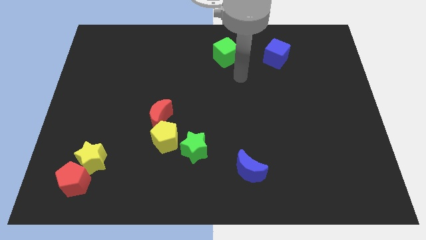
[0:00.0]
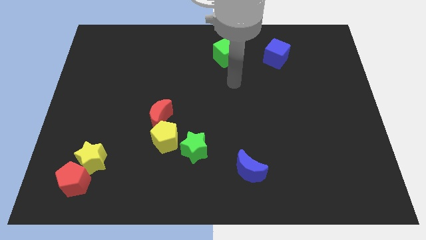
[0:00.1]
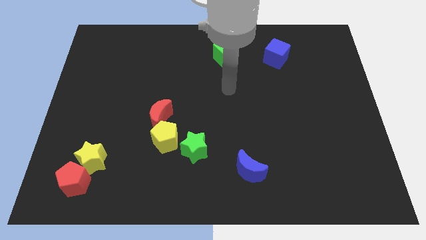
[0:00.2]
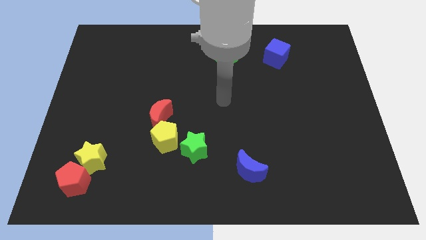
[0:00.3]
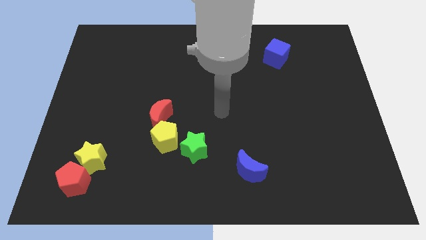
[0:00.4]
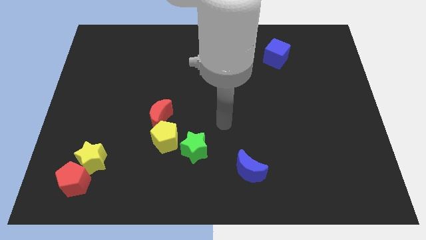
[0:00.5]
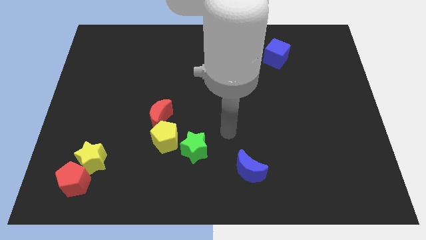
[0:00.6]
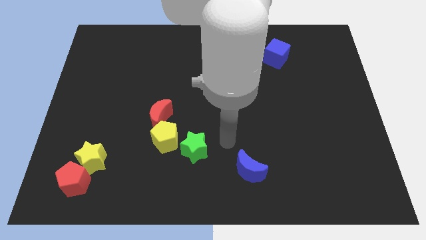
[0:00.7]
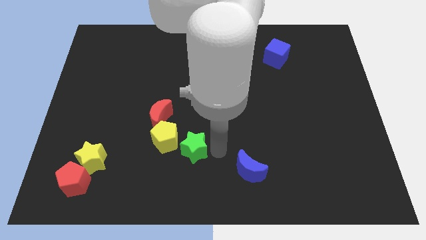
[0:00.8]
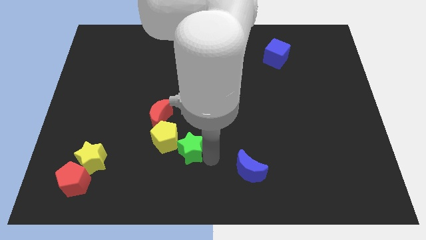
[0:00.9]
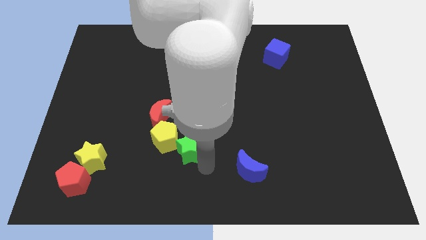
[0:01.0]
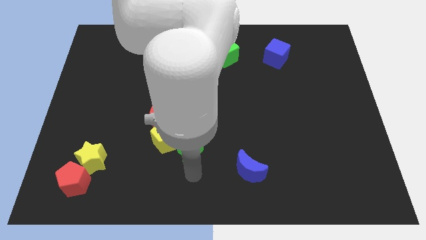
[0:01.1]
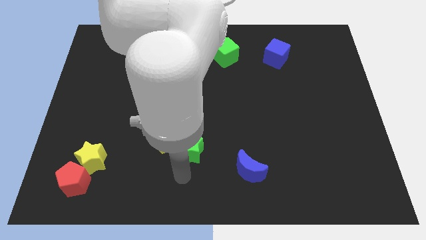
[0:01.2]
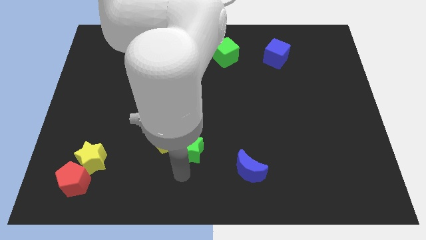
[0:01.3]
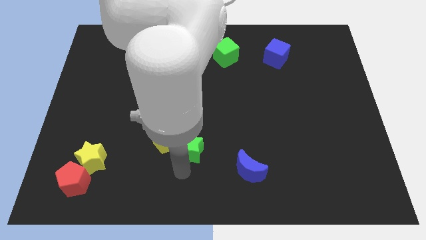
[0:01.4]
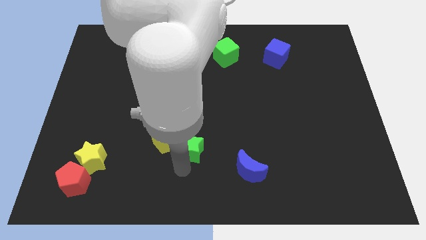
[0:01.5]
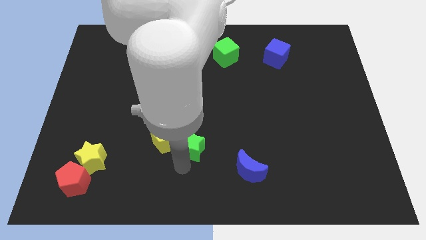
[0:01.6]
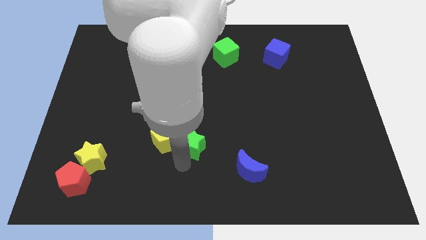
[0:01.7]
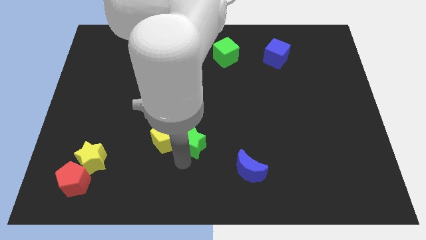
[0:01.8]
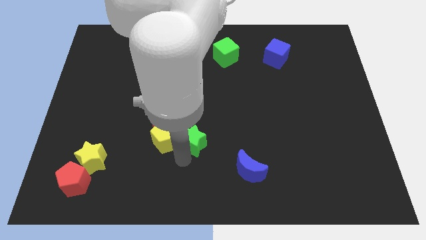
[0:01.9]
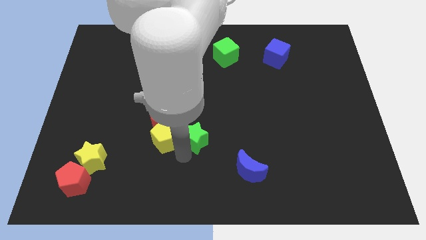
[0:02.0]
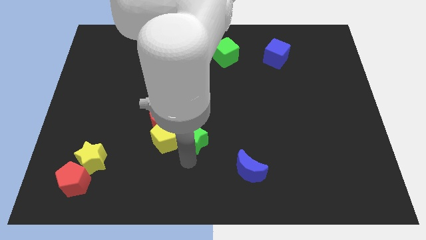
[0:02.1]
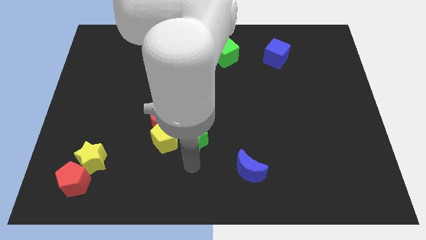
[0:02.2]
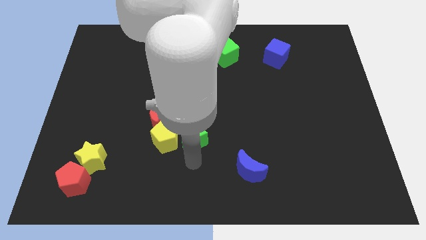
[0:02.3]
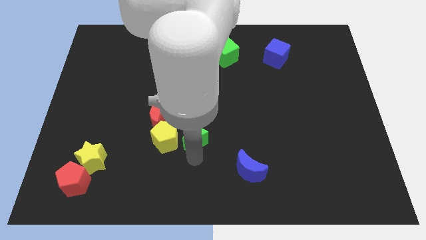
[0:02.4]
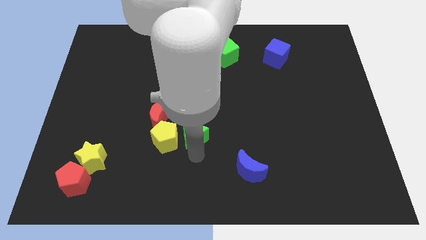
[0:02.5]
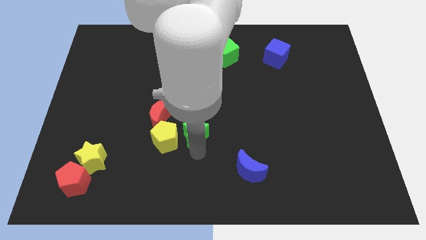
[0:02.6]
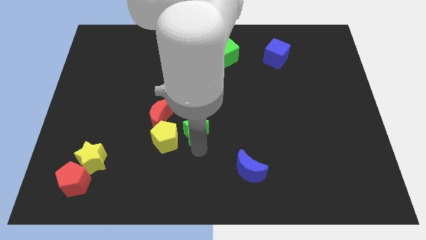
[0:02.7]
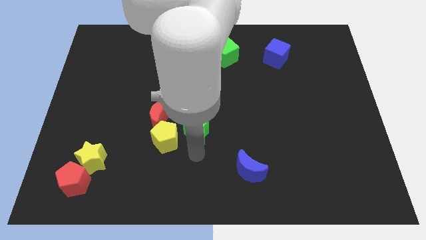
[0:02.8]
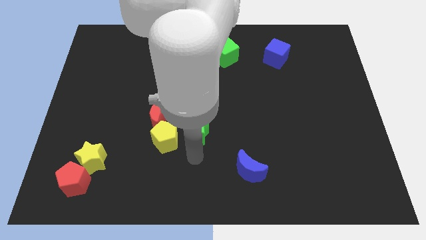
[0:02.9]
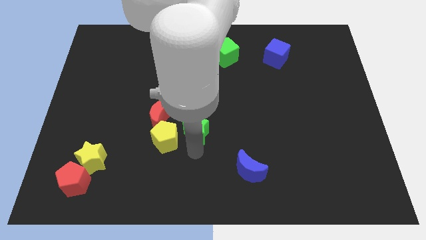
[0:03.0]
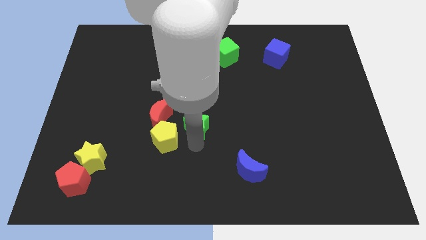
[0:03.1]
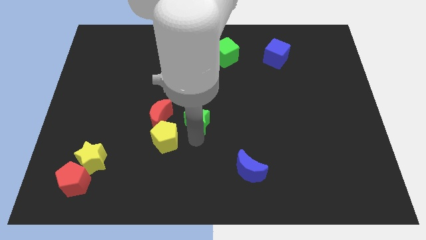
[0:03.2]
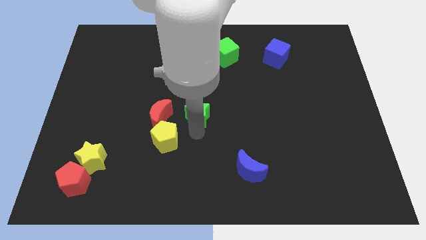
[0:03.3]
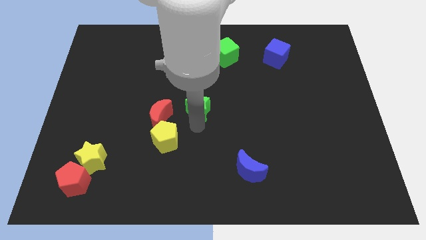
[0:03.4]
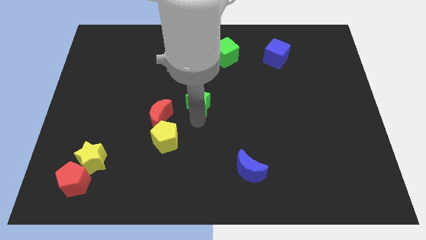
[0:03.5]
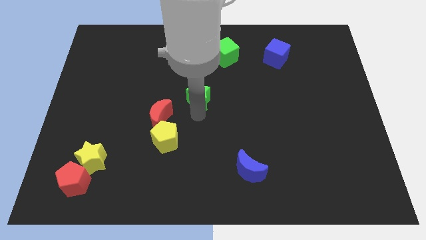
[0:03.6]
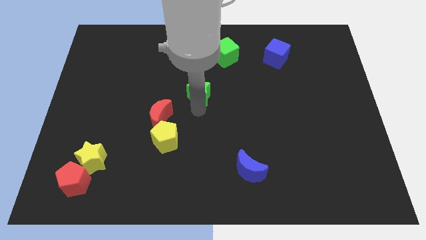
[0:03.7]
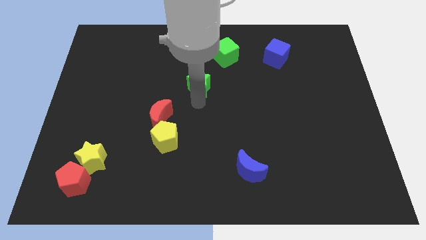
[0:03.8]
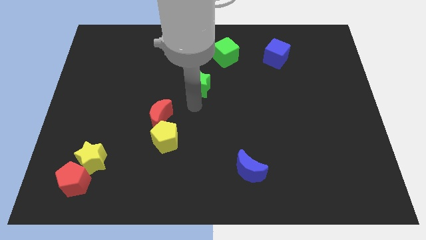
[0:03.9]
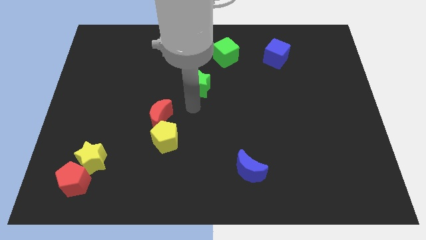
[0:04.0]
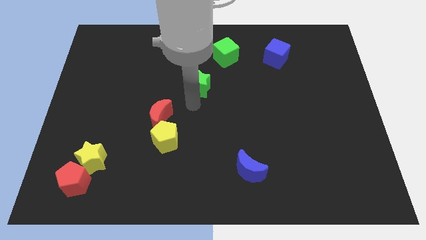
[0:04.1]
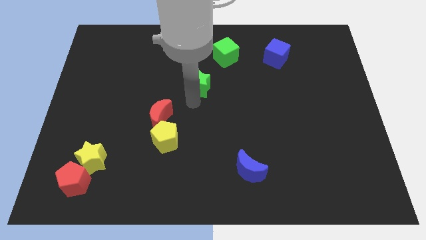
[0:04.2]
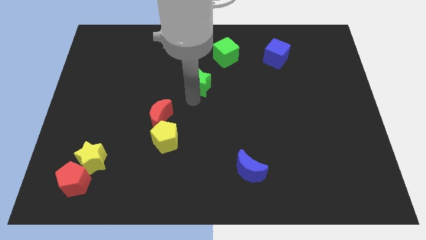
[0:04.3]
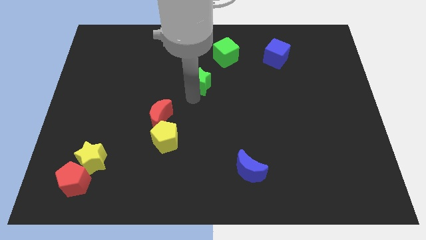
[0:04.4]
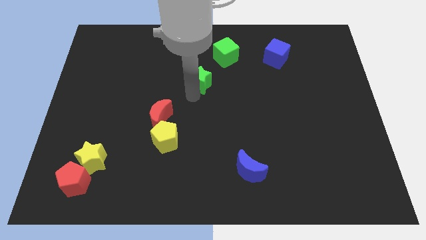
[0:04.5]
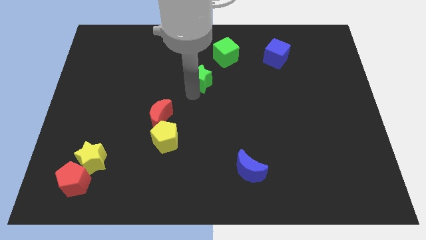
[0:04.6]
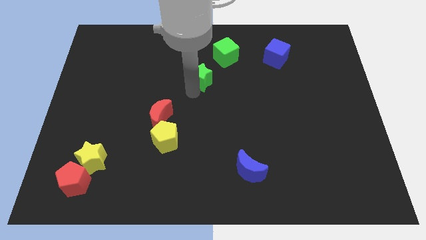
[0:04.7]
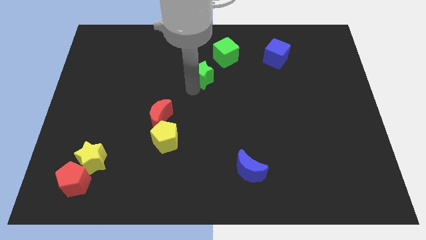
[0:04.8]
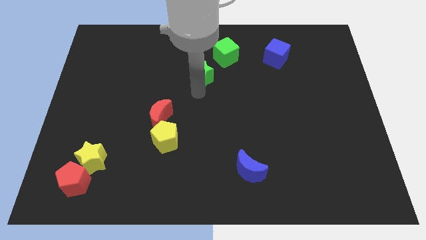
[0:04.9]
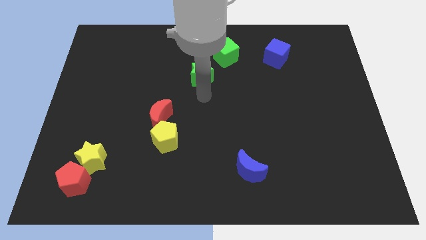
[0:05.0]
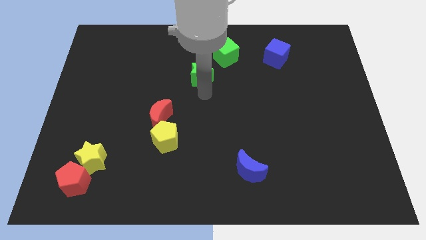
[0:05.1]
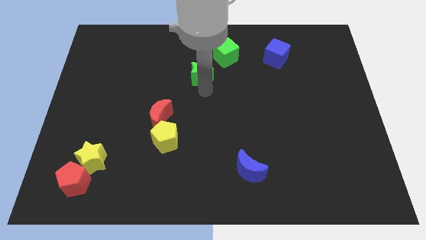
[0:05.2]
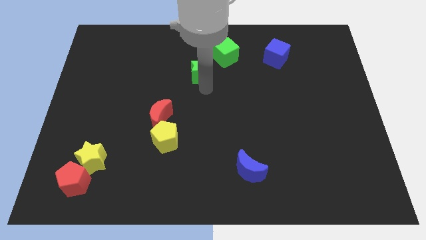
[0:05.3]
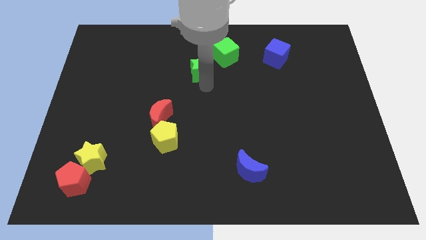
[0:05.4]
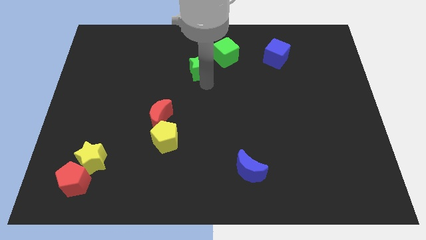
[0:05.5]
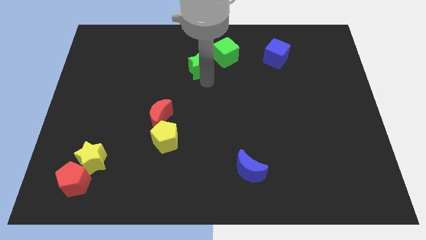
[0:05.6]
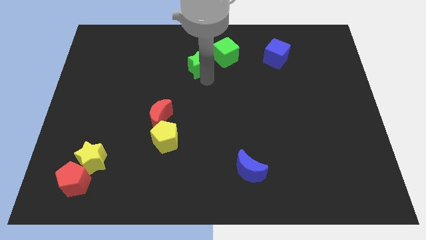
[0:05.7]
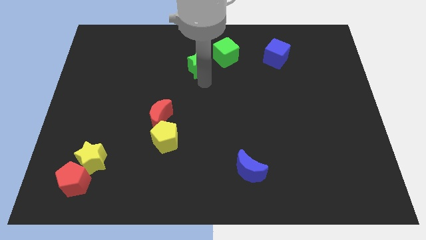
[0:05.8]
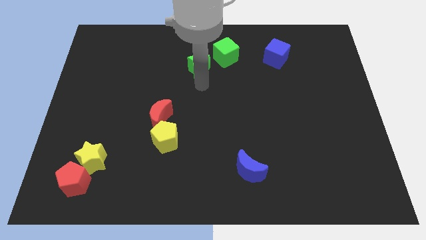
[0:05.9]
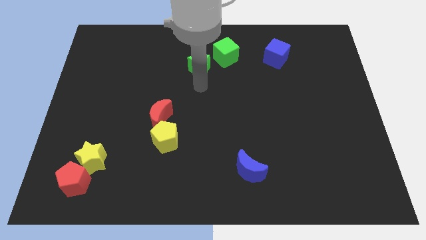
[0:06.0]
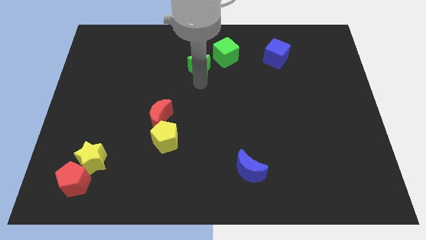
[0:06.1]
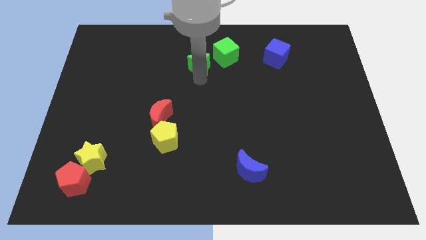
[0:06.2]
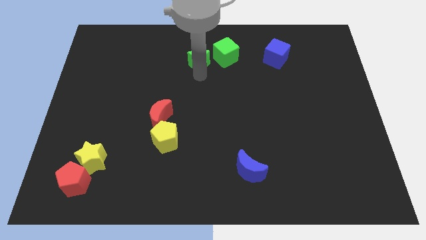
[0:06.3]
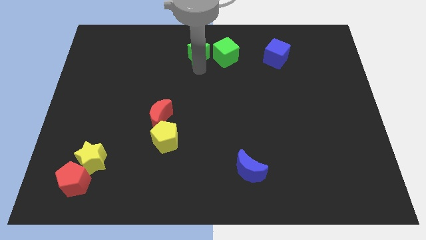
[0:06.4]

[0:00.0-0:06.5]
move the green star to the top
